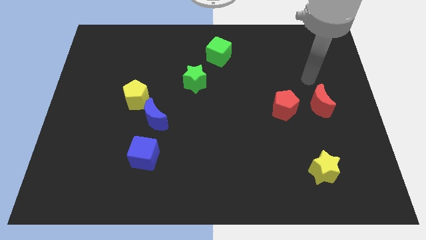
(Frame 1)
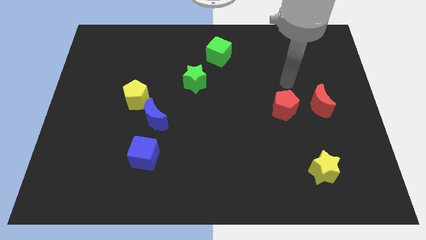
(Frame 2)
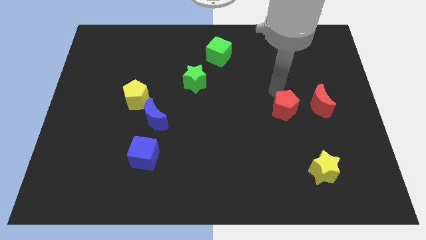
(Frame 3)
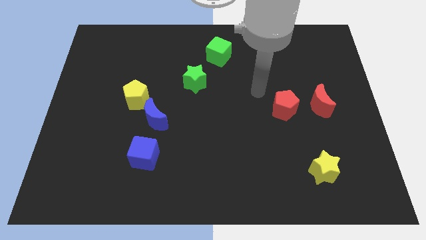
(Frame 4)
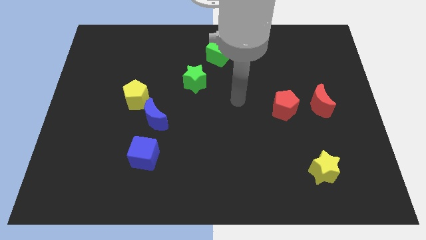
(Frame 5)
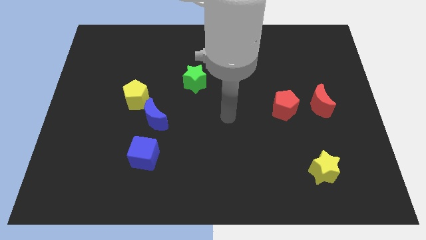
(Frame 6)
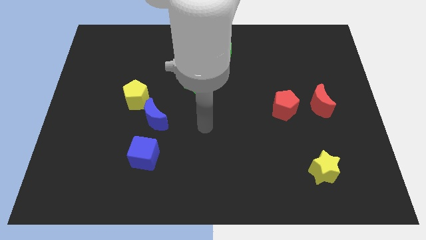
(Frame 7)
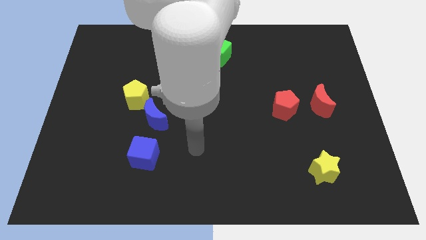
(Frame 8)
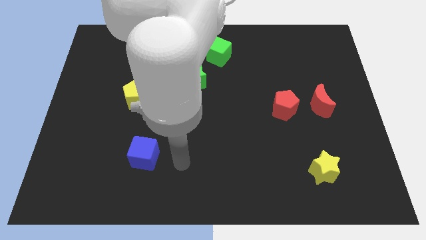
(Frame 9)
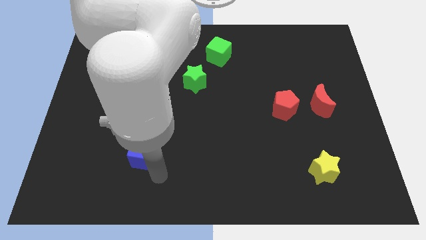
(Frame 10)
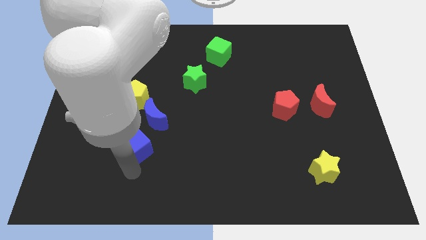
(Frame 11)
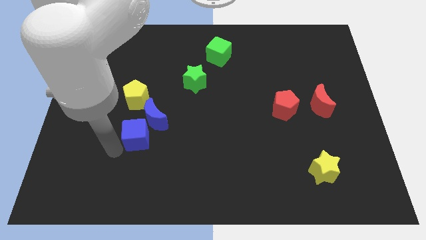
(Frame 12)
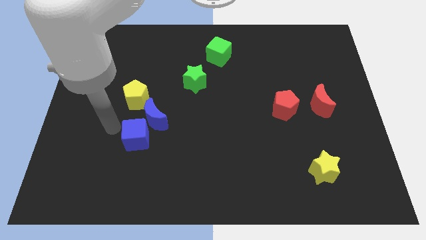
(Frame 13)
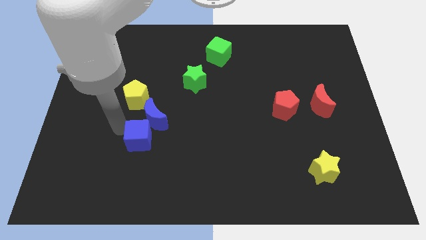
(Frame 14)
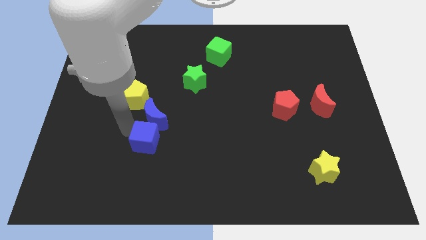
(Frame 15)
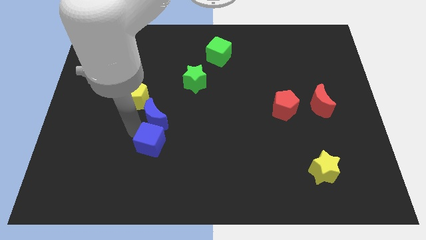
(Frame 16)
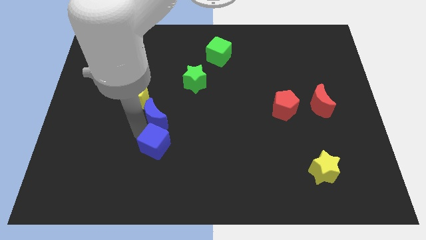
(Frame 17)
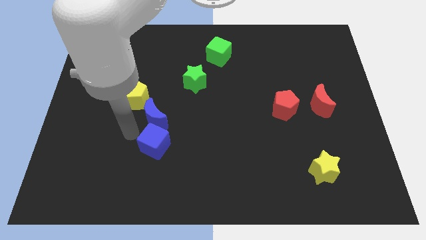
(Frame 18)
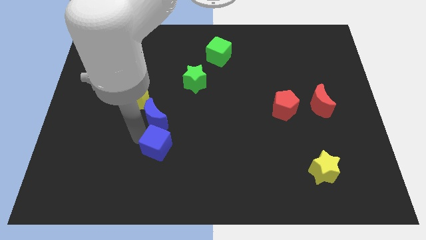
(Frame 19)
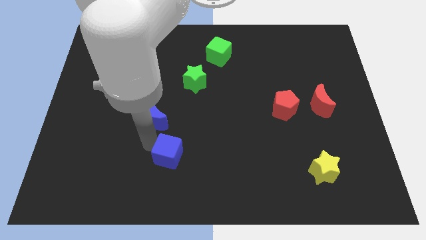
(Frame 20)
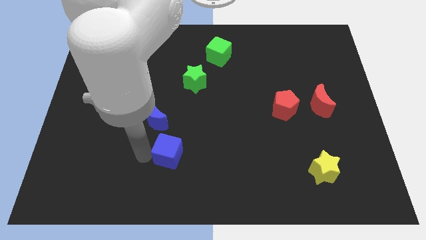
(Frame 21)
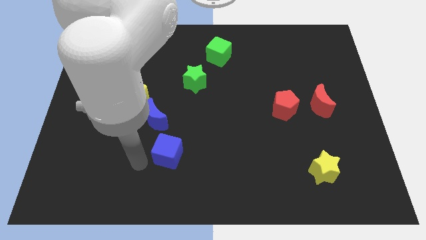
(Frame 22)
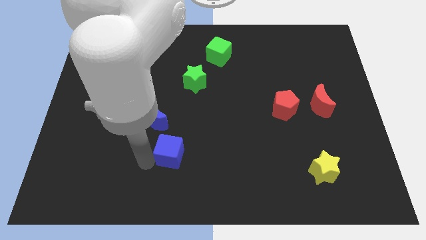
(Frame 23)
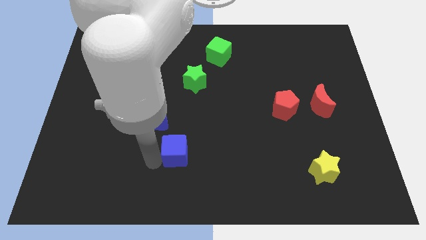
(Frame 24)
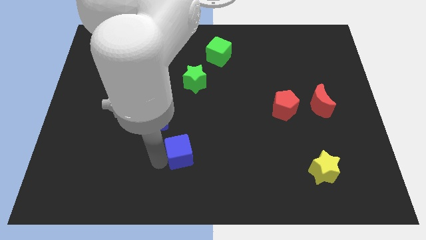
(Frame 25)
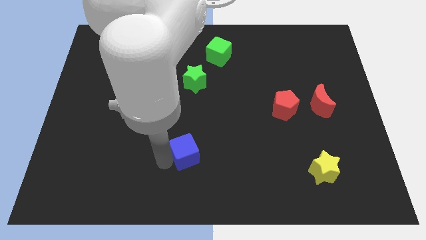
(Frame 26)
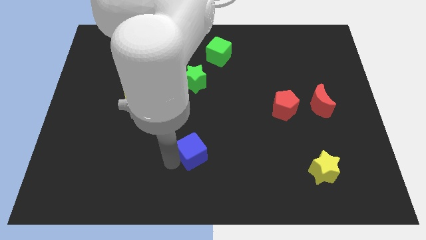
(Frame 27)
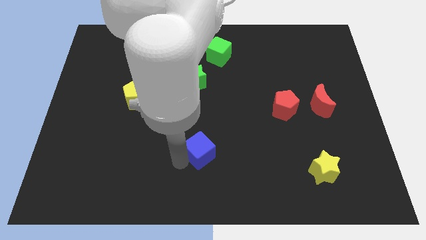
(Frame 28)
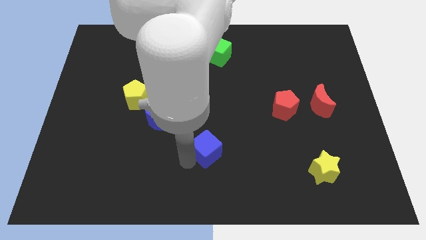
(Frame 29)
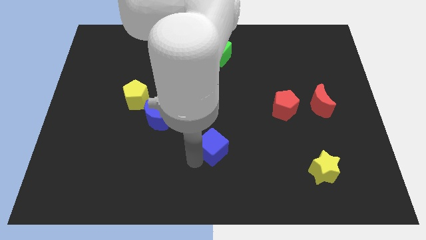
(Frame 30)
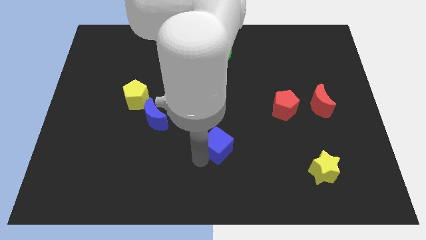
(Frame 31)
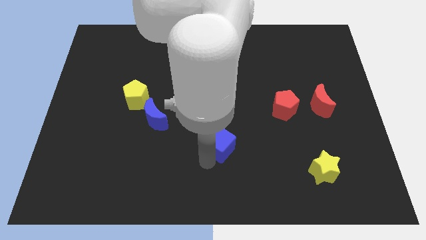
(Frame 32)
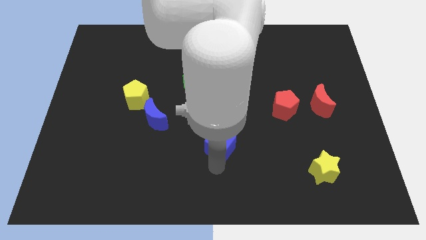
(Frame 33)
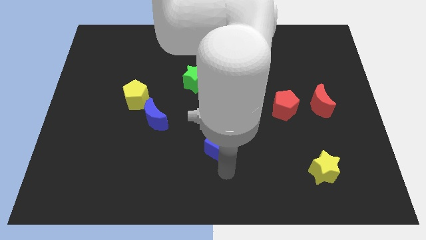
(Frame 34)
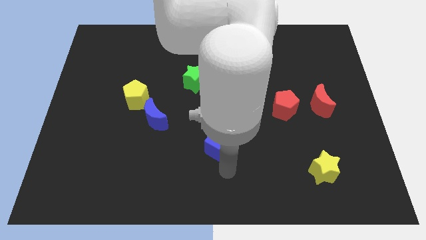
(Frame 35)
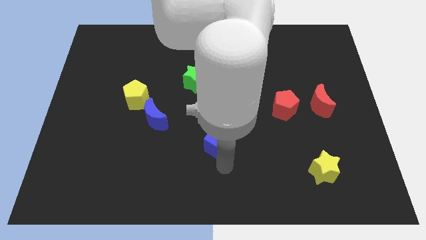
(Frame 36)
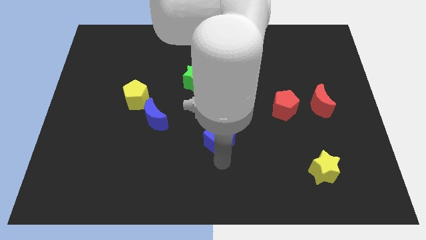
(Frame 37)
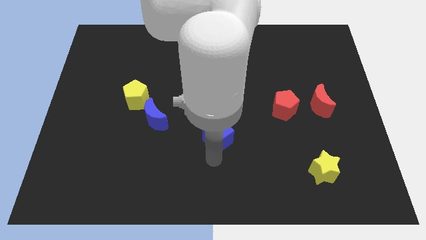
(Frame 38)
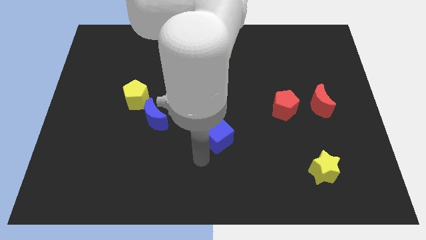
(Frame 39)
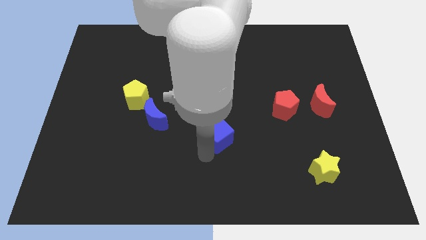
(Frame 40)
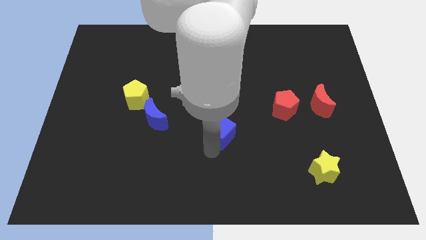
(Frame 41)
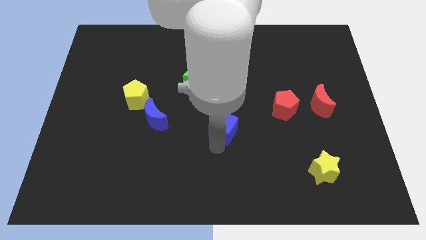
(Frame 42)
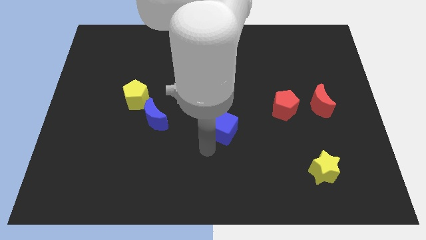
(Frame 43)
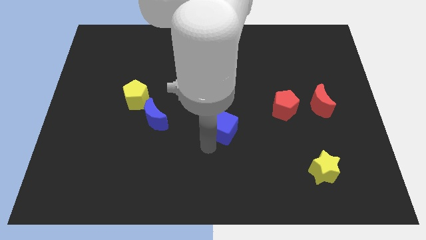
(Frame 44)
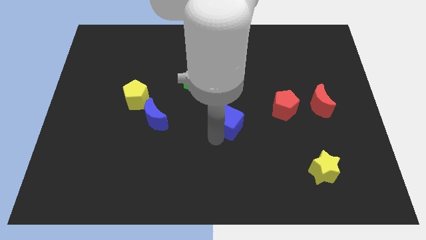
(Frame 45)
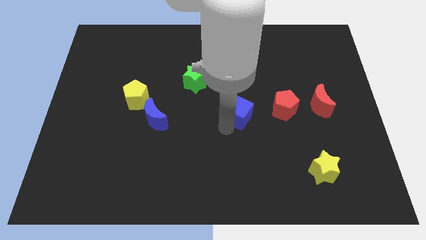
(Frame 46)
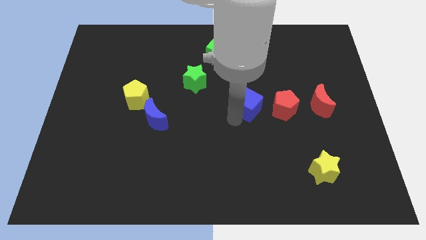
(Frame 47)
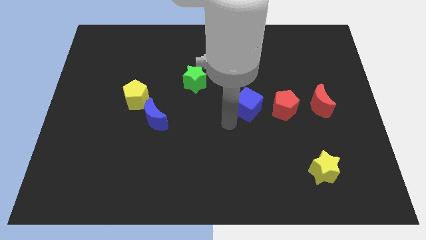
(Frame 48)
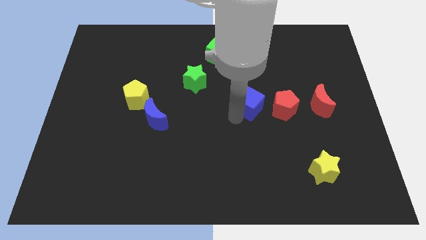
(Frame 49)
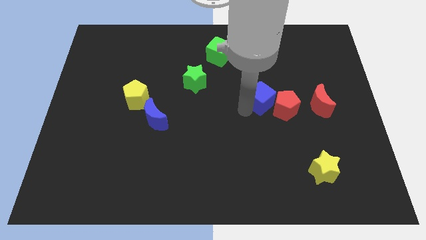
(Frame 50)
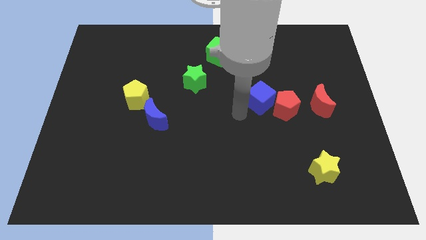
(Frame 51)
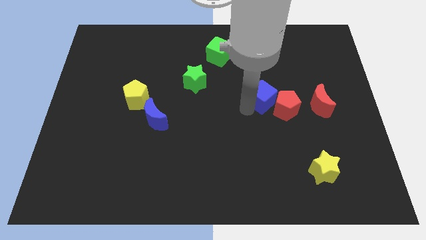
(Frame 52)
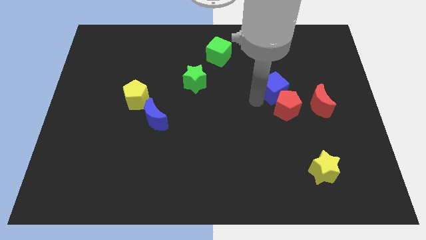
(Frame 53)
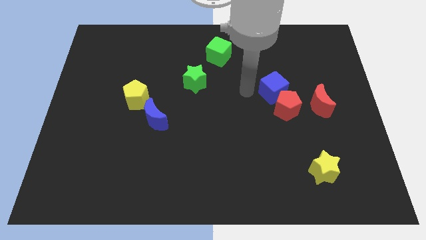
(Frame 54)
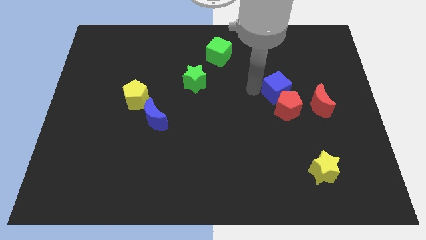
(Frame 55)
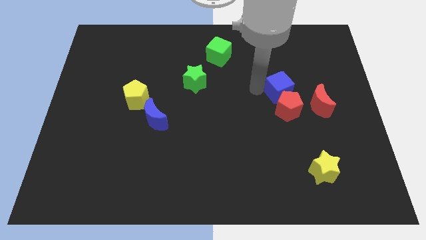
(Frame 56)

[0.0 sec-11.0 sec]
slide the blue cube to the top right side of the red pentagon

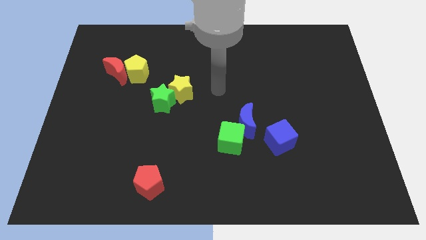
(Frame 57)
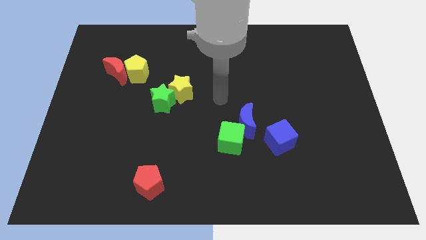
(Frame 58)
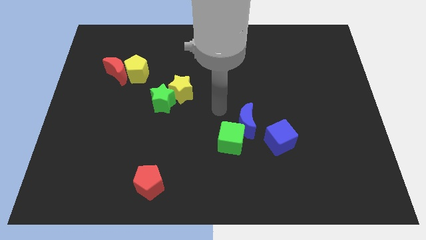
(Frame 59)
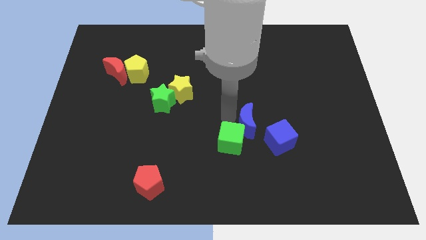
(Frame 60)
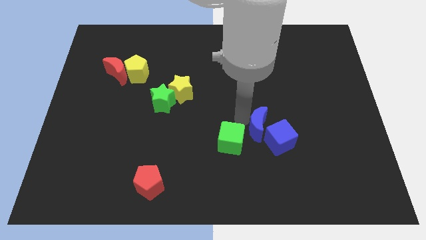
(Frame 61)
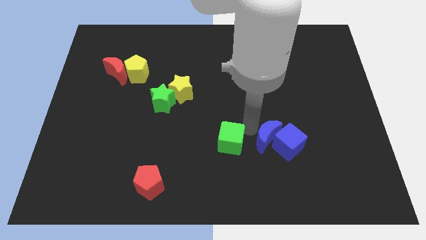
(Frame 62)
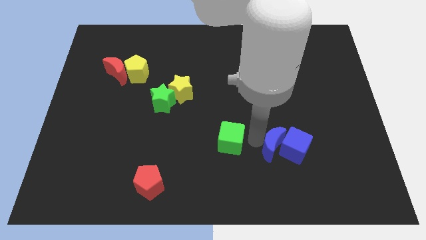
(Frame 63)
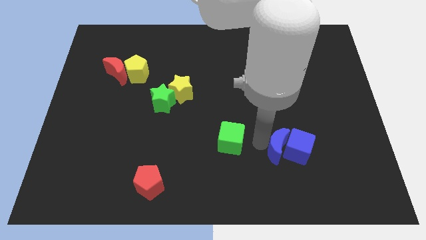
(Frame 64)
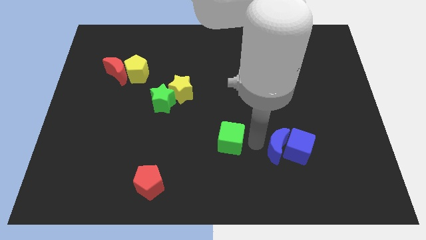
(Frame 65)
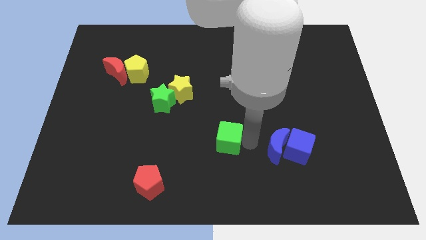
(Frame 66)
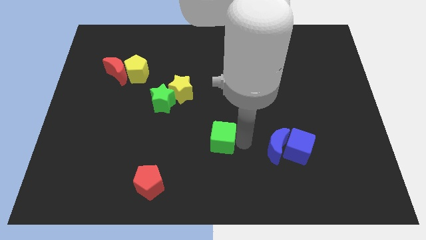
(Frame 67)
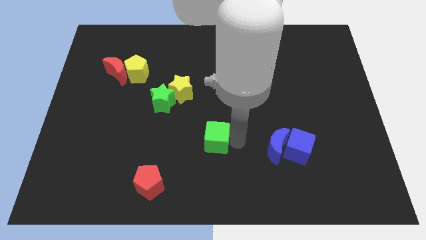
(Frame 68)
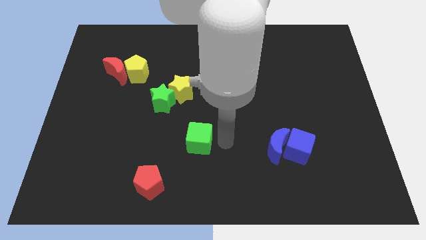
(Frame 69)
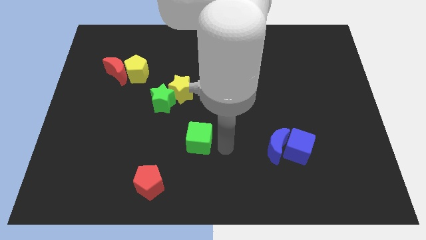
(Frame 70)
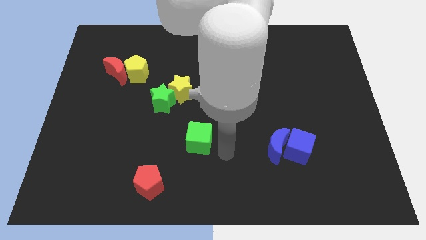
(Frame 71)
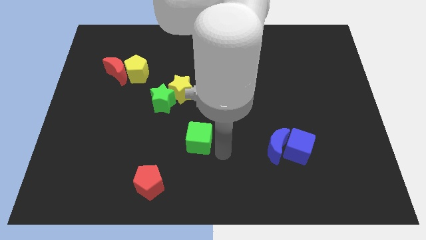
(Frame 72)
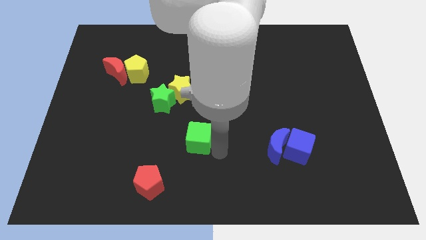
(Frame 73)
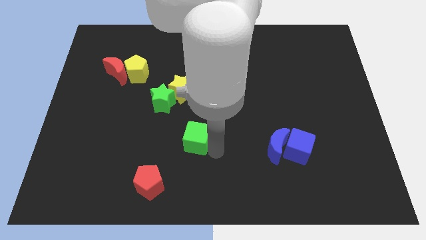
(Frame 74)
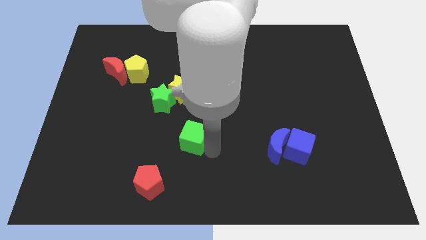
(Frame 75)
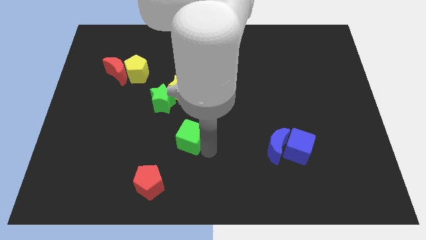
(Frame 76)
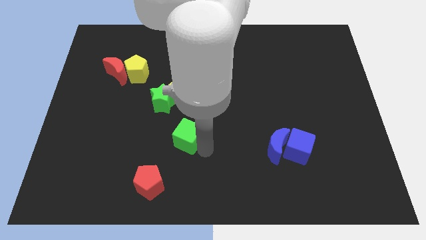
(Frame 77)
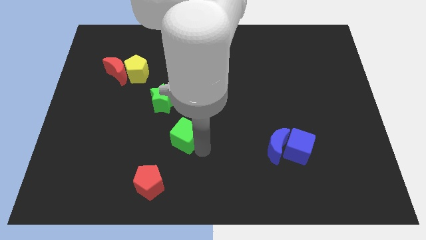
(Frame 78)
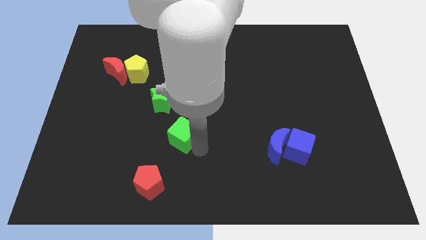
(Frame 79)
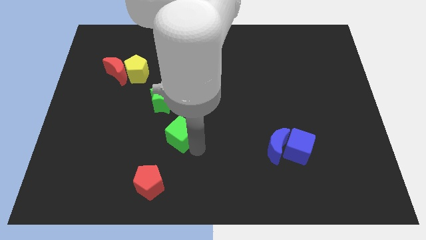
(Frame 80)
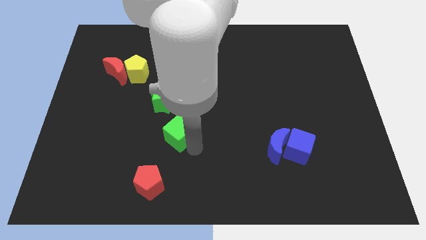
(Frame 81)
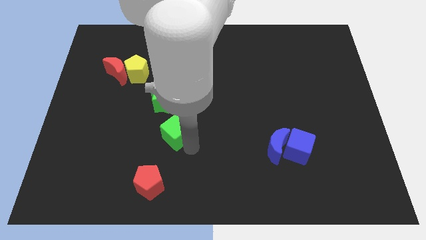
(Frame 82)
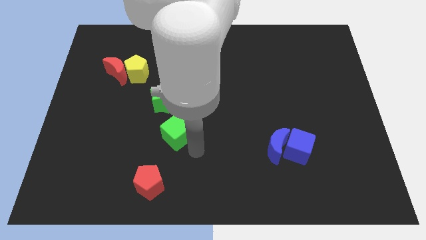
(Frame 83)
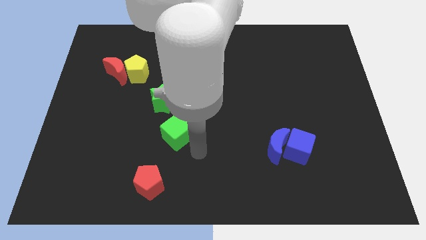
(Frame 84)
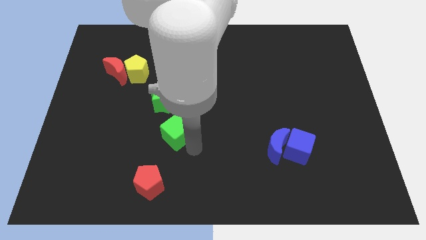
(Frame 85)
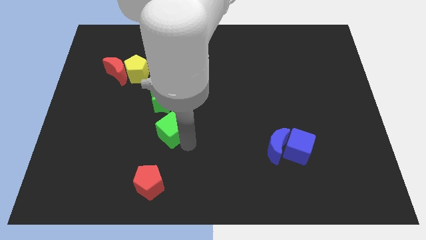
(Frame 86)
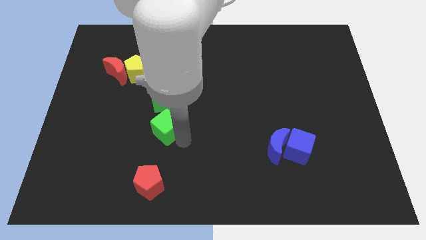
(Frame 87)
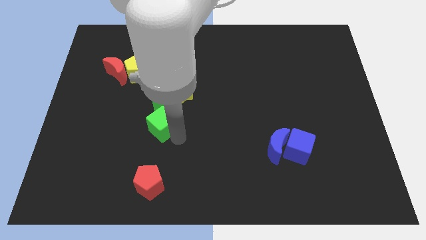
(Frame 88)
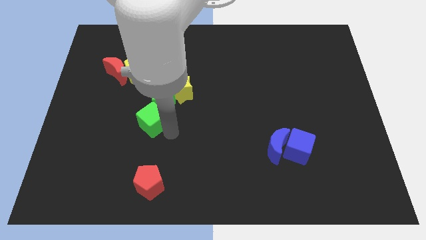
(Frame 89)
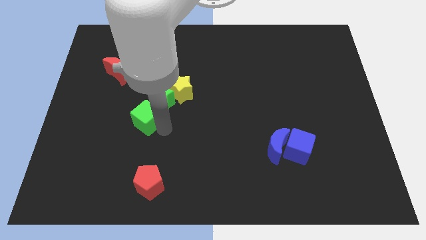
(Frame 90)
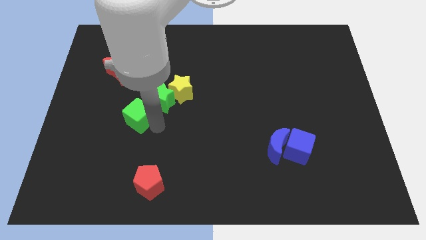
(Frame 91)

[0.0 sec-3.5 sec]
put the green cube to the bottom of the yellow pentagon
